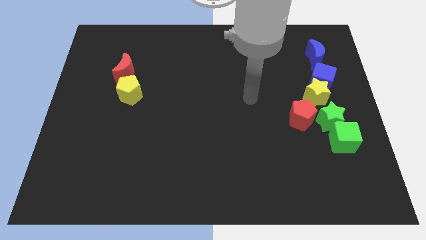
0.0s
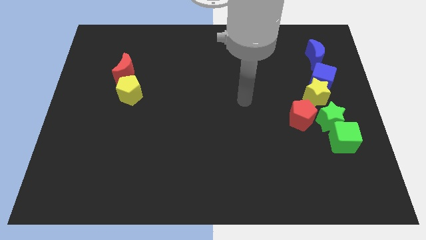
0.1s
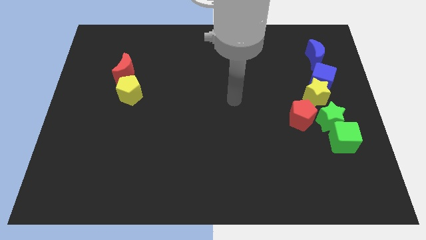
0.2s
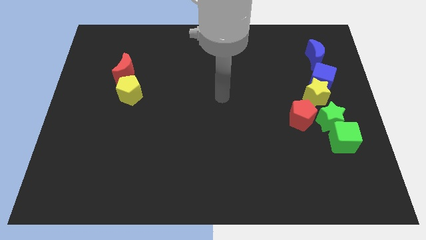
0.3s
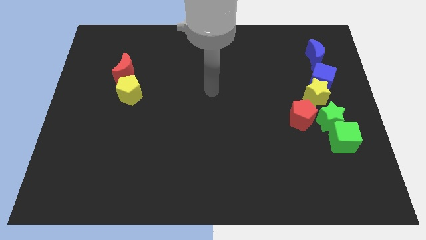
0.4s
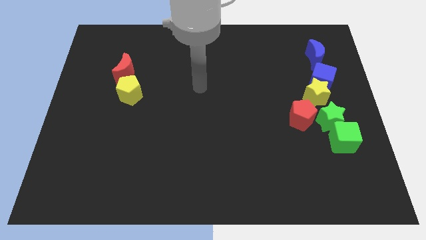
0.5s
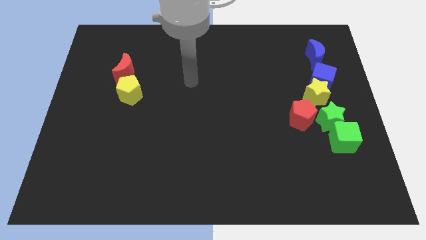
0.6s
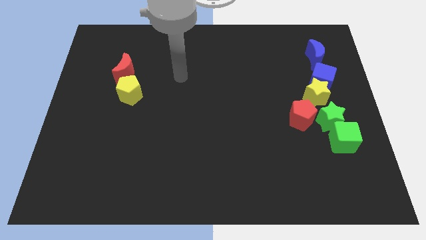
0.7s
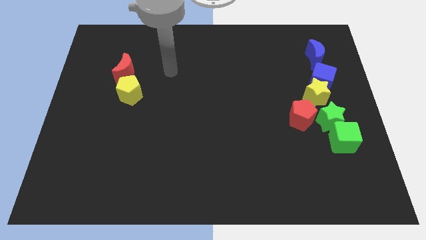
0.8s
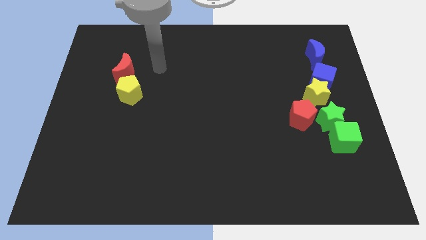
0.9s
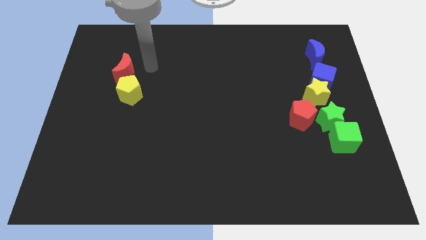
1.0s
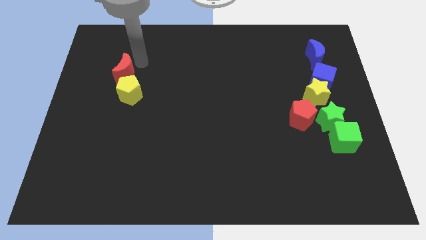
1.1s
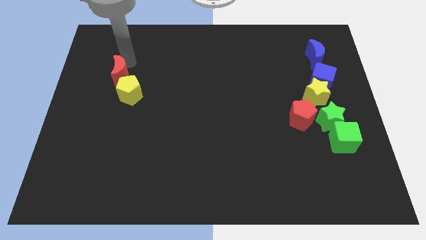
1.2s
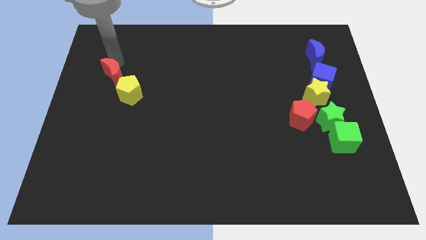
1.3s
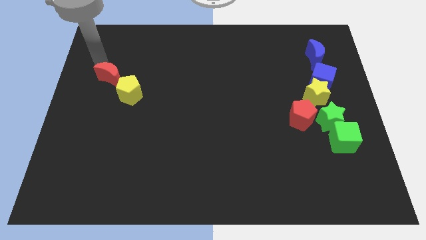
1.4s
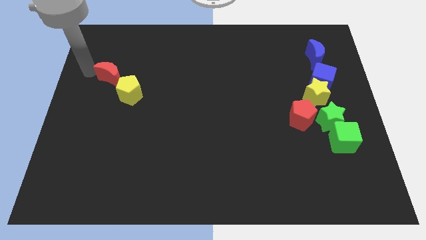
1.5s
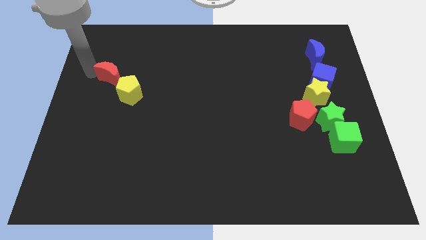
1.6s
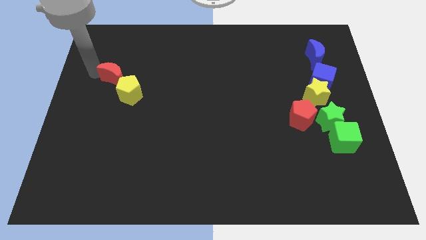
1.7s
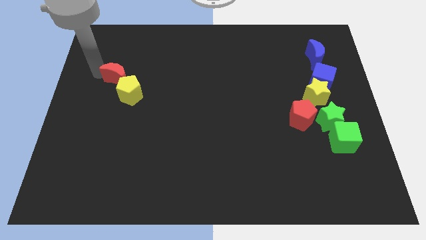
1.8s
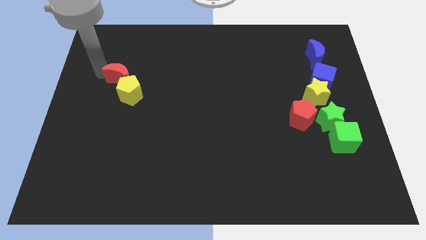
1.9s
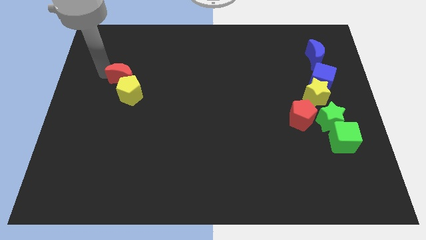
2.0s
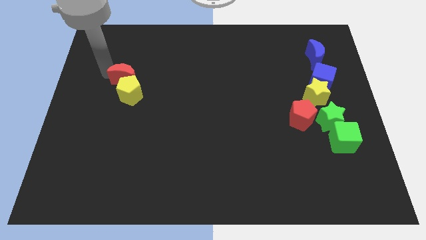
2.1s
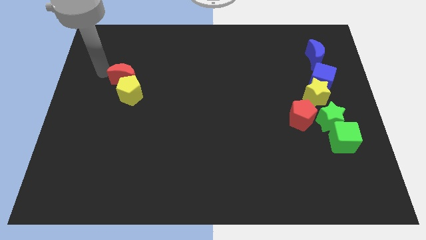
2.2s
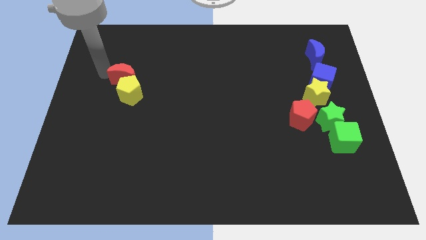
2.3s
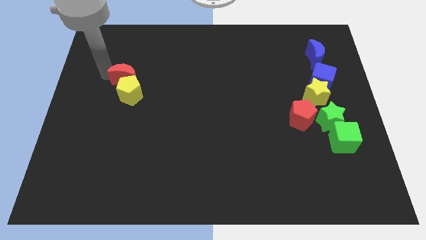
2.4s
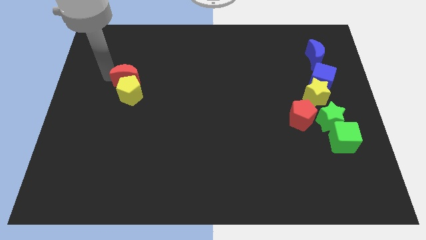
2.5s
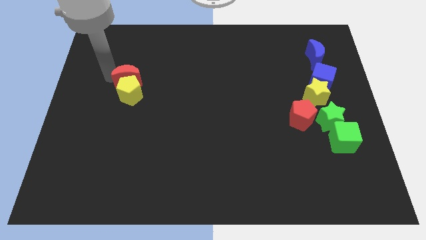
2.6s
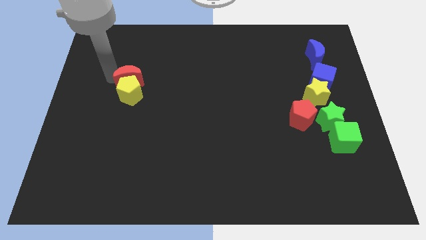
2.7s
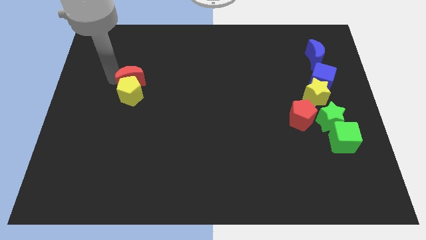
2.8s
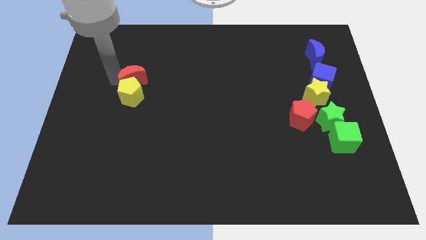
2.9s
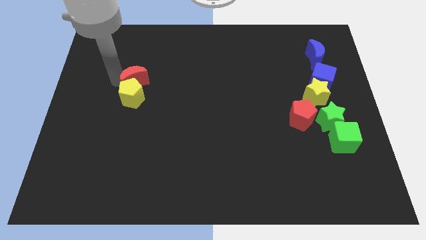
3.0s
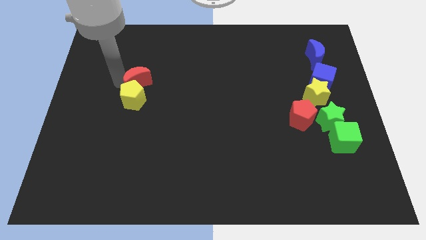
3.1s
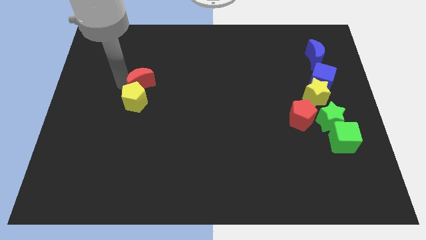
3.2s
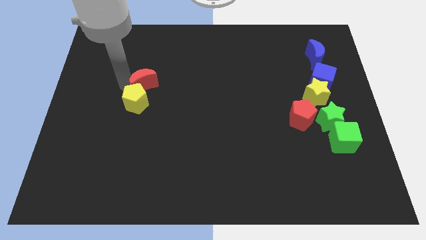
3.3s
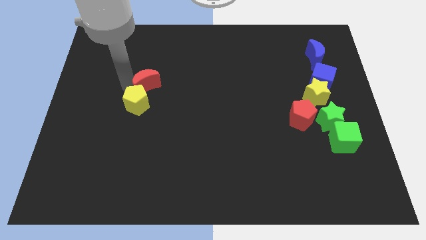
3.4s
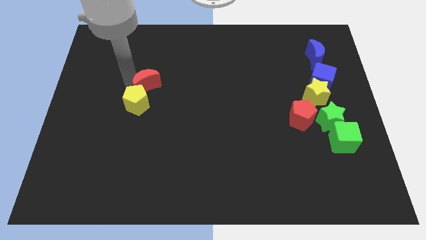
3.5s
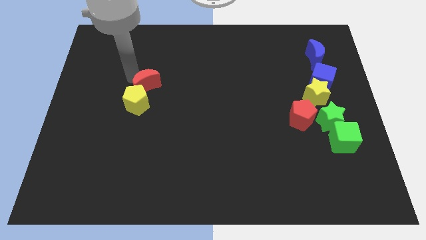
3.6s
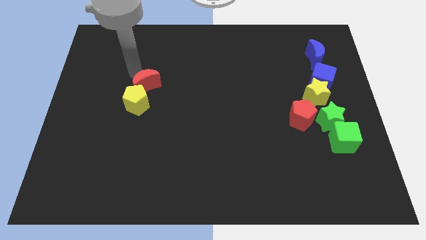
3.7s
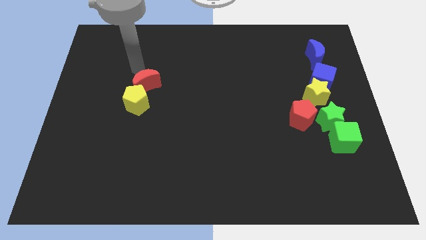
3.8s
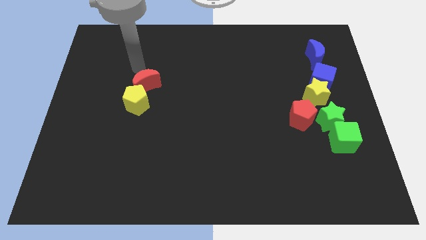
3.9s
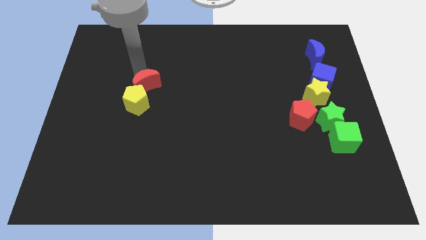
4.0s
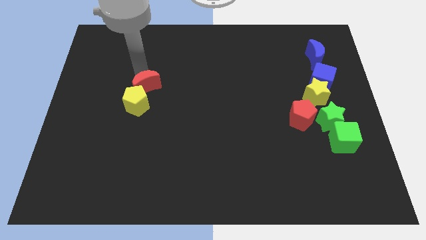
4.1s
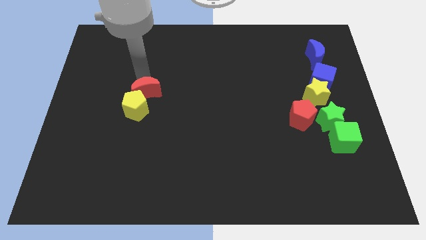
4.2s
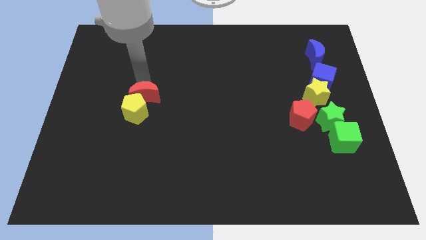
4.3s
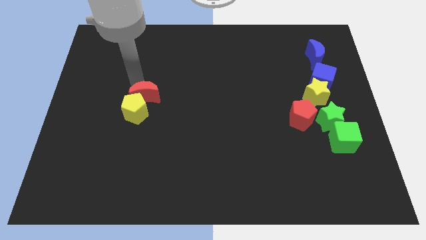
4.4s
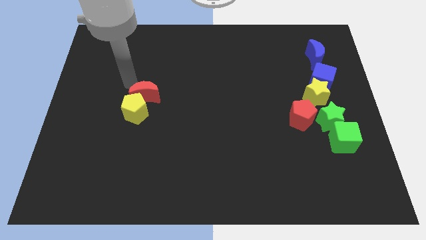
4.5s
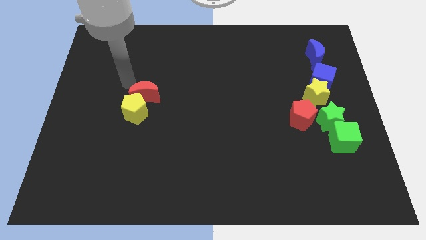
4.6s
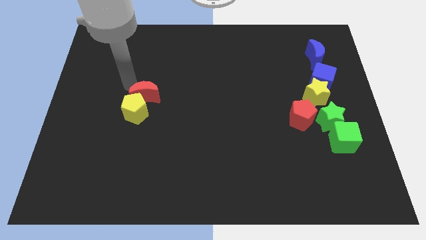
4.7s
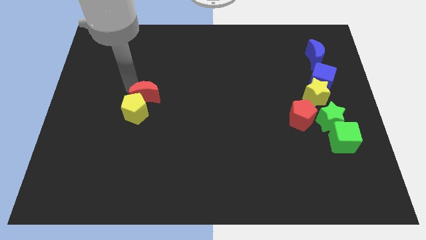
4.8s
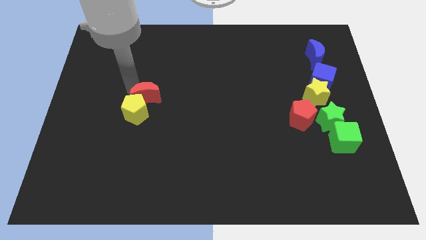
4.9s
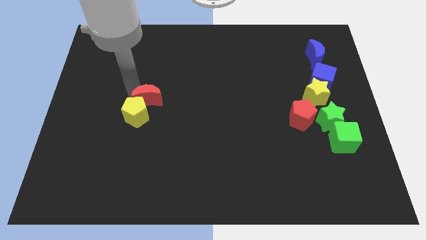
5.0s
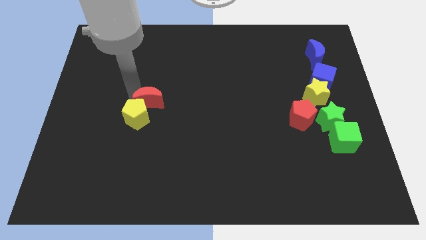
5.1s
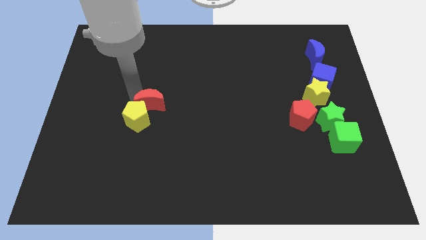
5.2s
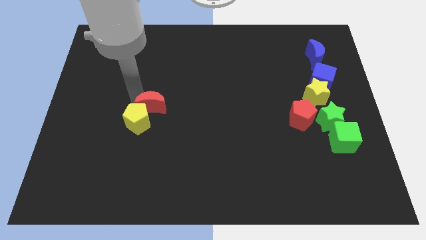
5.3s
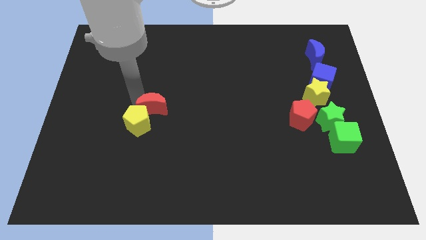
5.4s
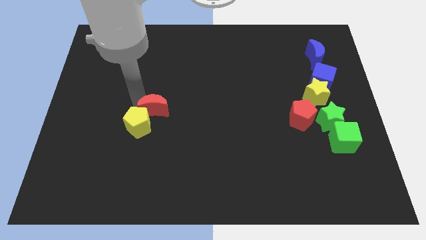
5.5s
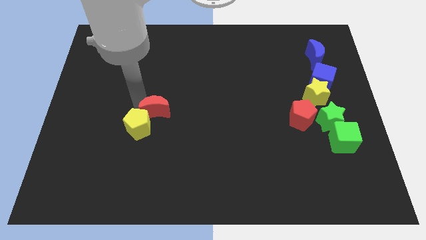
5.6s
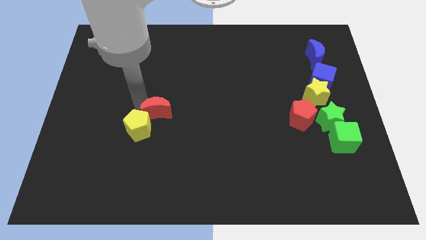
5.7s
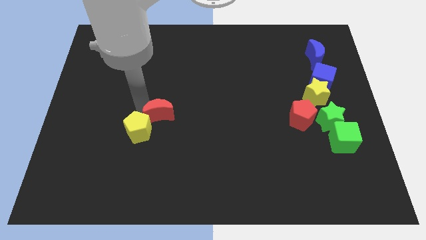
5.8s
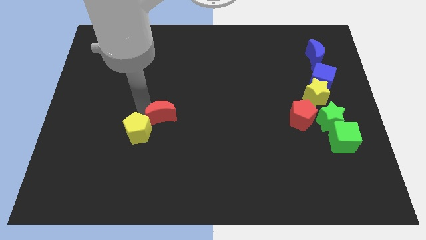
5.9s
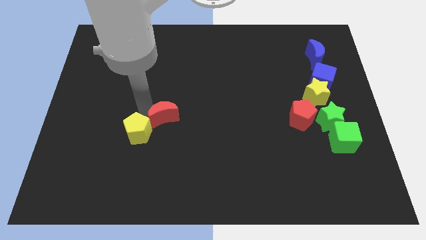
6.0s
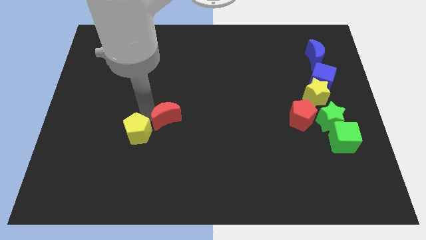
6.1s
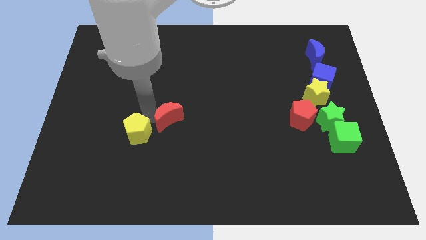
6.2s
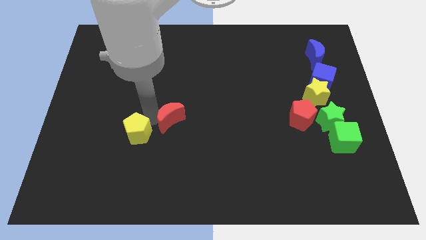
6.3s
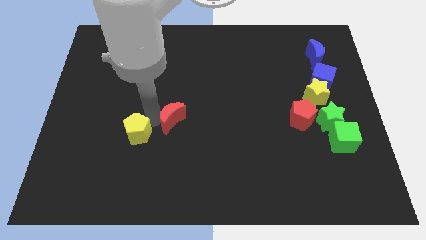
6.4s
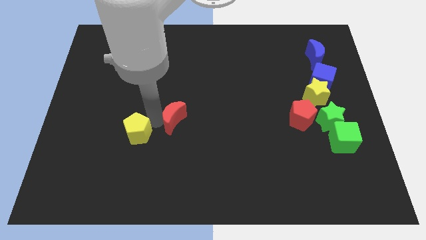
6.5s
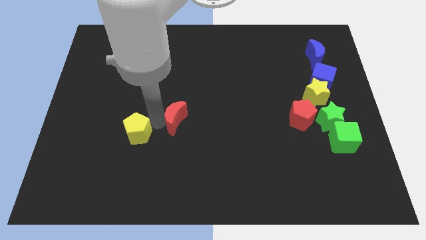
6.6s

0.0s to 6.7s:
move the red moon down and right diagonally

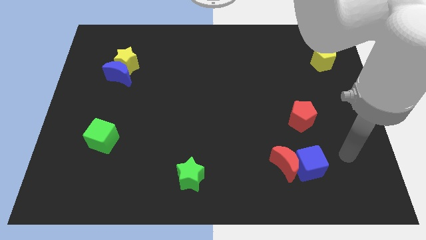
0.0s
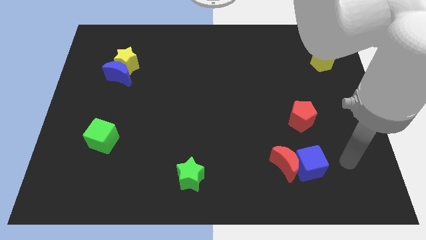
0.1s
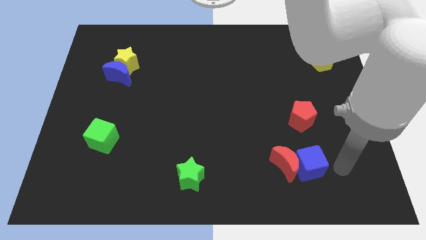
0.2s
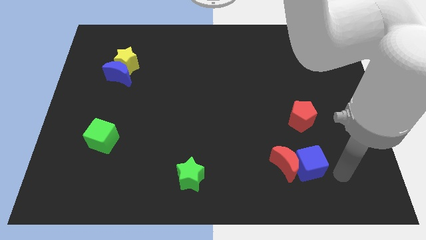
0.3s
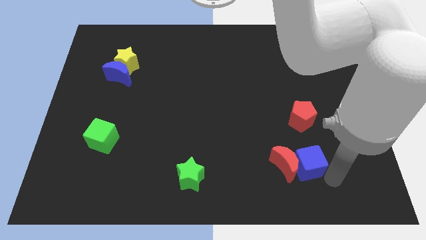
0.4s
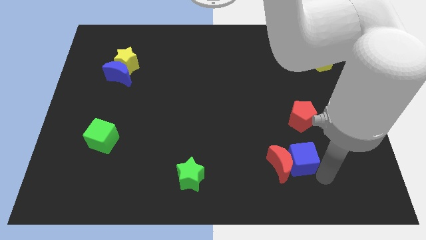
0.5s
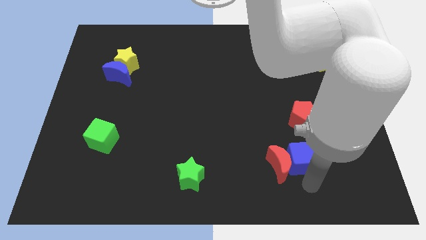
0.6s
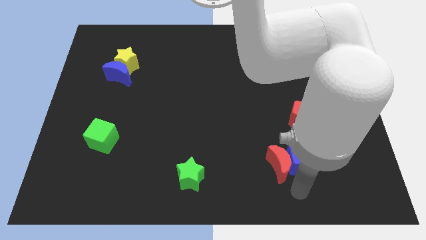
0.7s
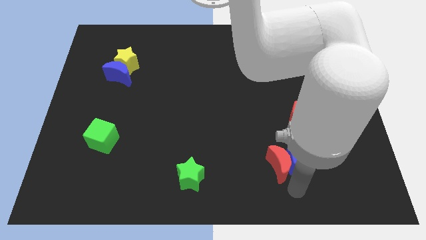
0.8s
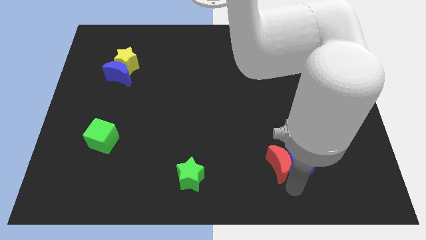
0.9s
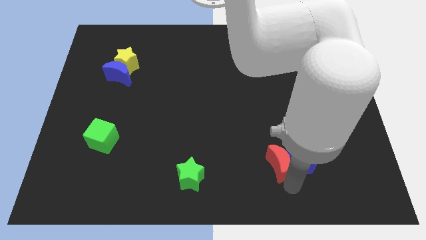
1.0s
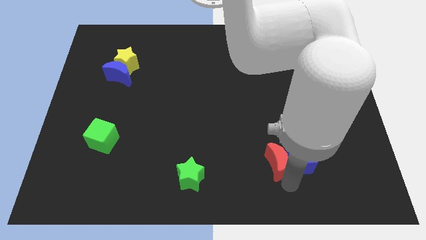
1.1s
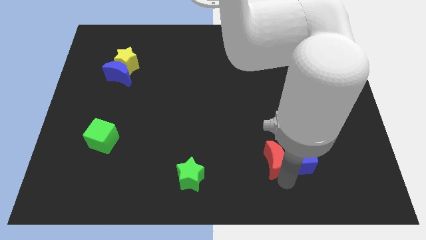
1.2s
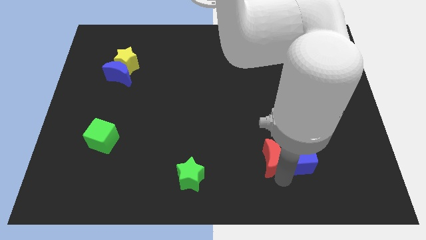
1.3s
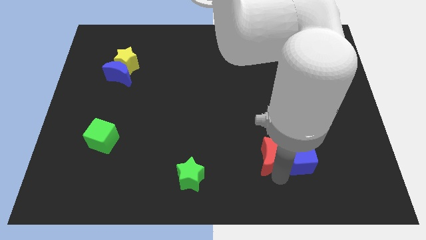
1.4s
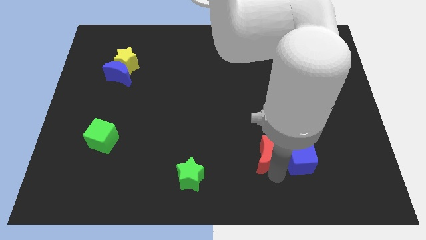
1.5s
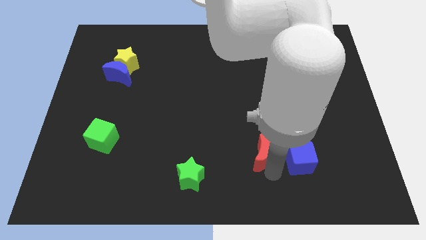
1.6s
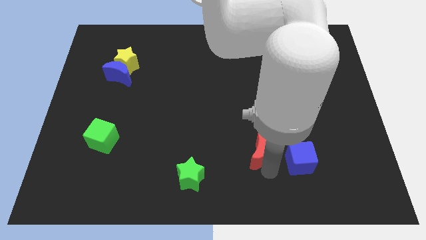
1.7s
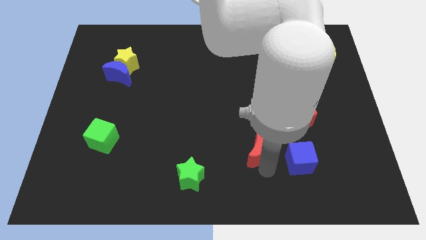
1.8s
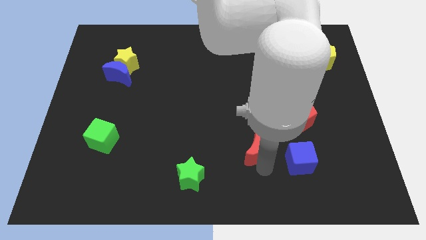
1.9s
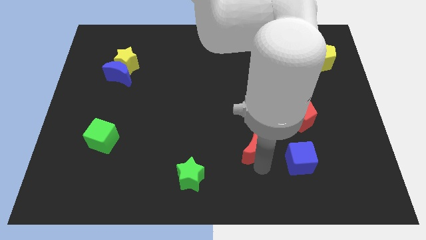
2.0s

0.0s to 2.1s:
slightly move the red moon diagonally up and left
